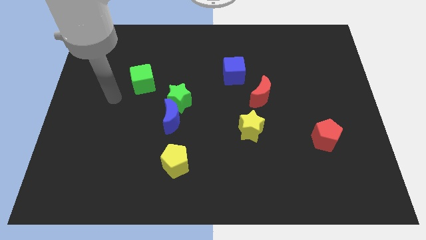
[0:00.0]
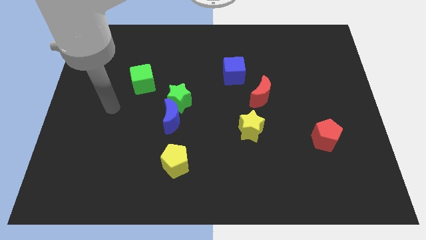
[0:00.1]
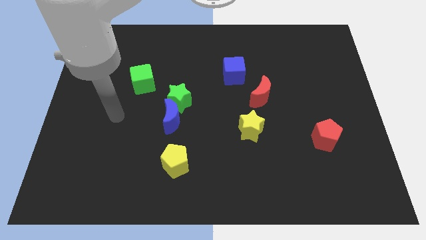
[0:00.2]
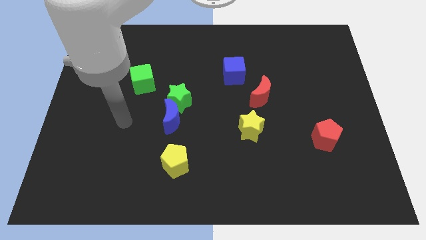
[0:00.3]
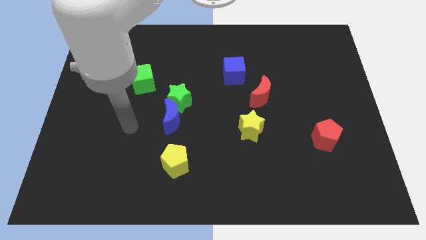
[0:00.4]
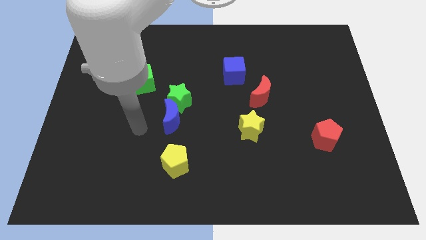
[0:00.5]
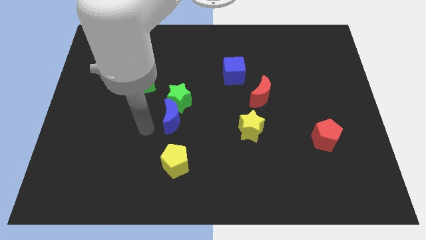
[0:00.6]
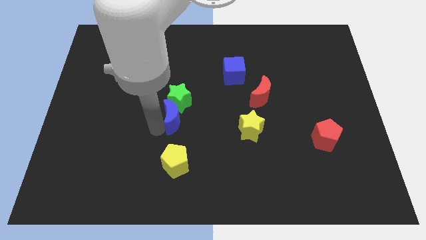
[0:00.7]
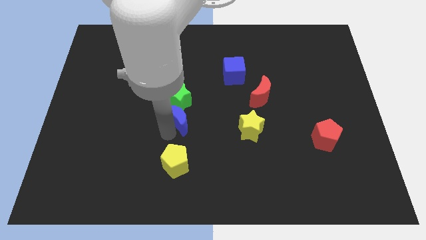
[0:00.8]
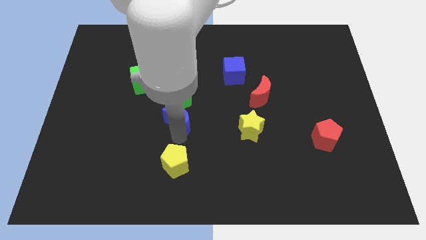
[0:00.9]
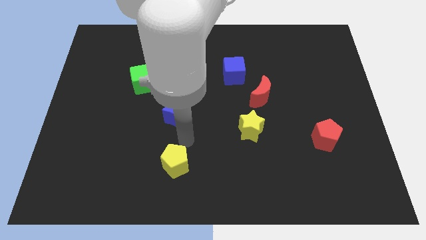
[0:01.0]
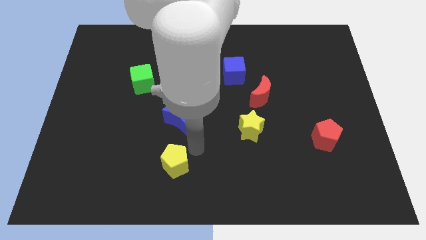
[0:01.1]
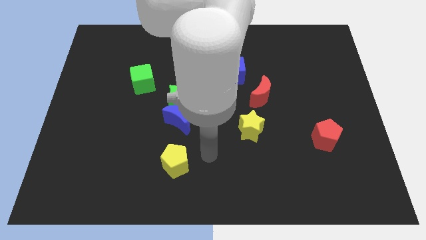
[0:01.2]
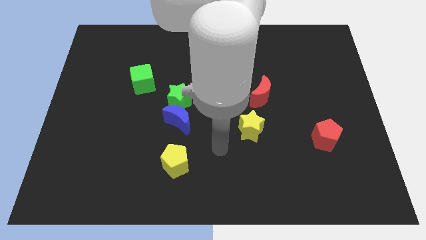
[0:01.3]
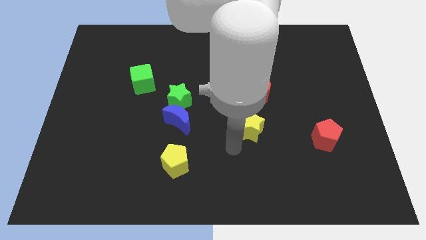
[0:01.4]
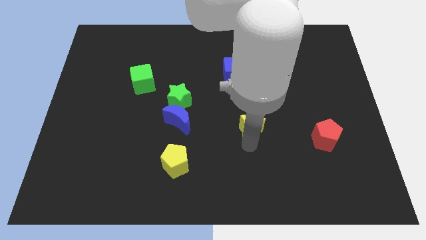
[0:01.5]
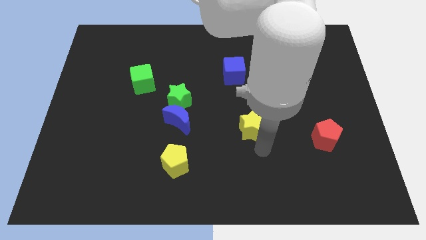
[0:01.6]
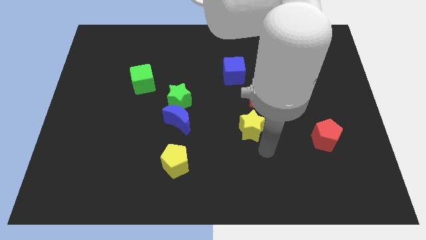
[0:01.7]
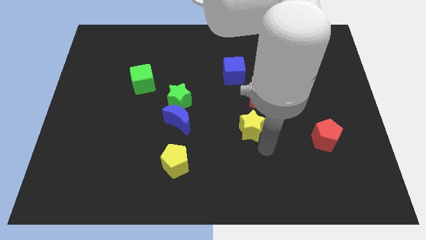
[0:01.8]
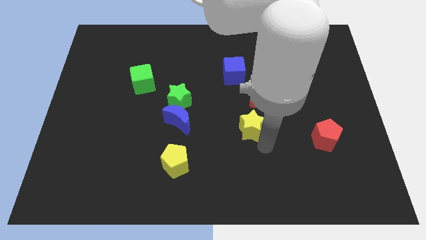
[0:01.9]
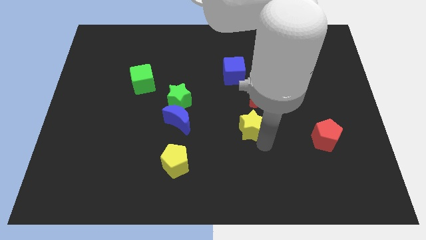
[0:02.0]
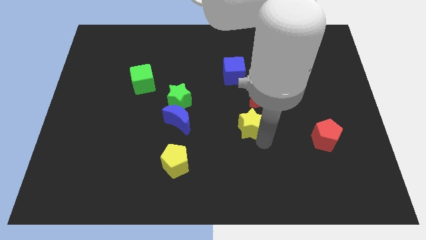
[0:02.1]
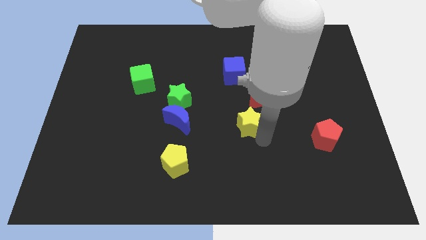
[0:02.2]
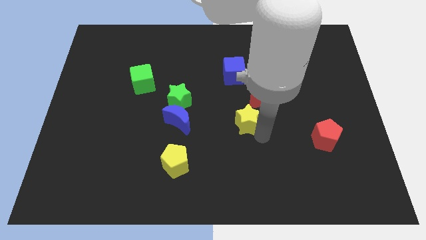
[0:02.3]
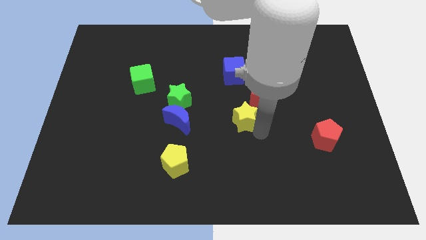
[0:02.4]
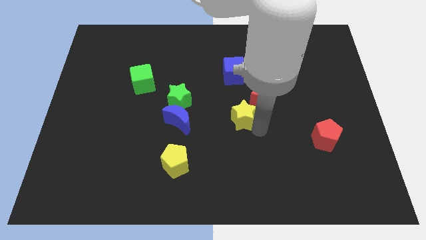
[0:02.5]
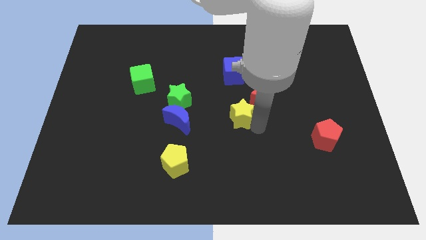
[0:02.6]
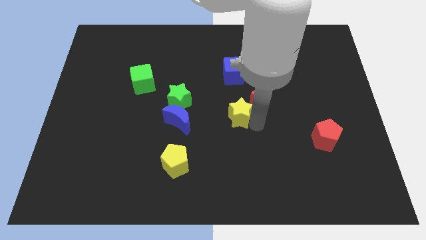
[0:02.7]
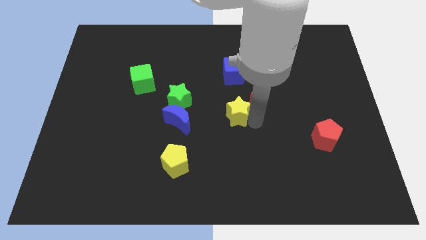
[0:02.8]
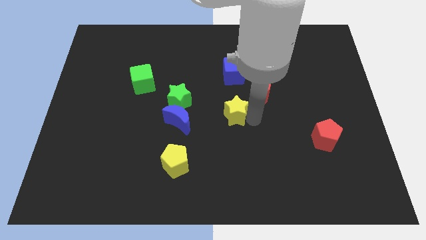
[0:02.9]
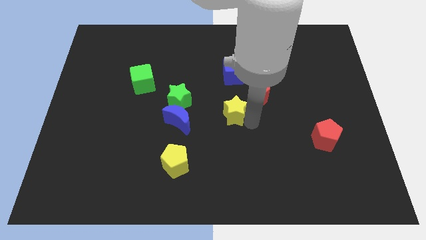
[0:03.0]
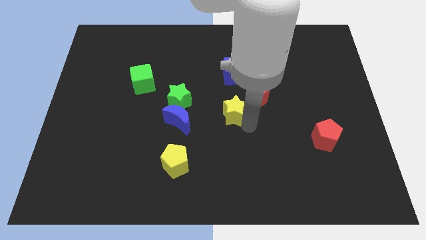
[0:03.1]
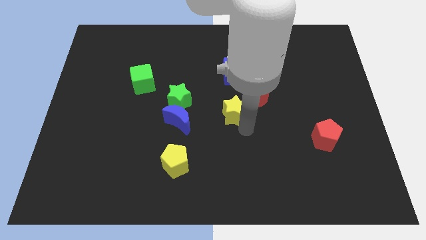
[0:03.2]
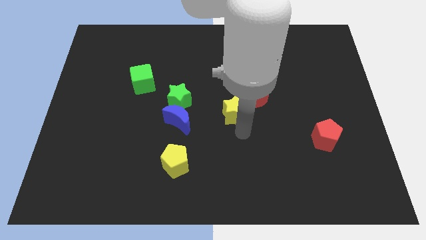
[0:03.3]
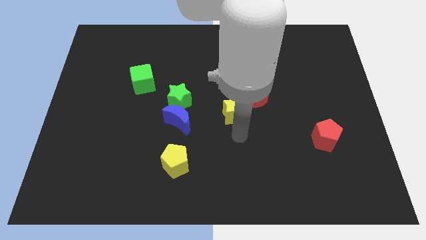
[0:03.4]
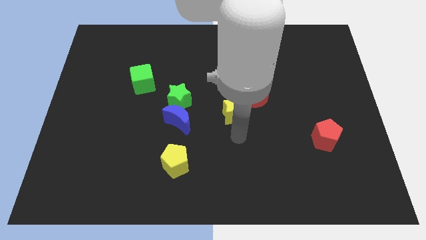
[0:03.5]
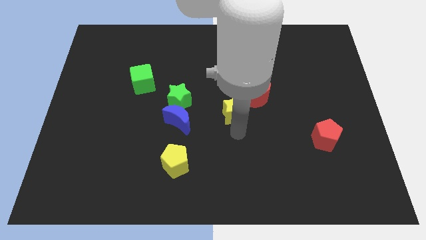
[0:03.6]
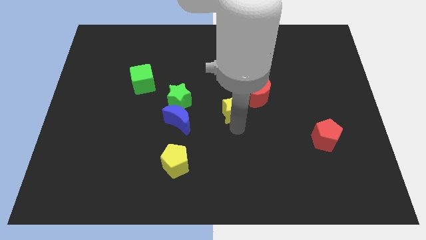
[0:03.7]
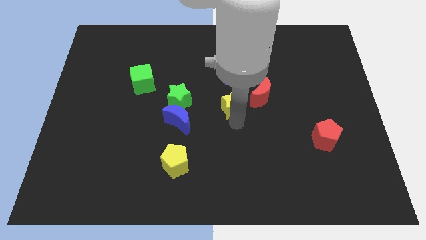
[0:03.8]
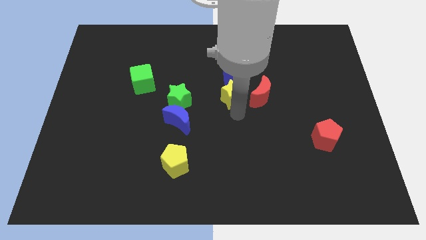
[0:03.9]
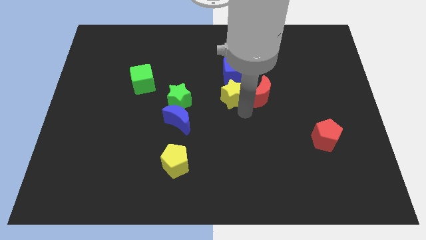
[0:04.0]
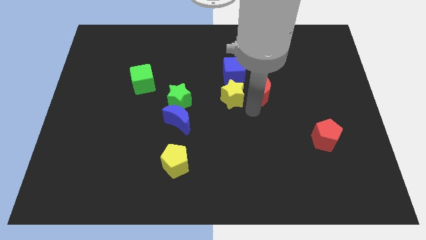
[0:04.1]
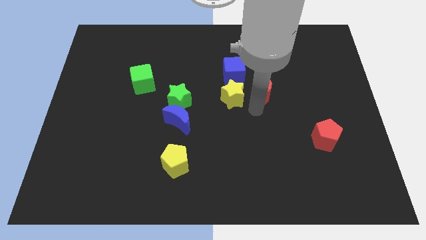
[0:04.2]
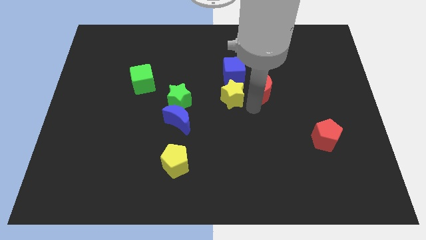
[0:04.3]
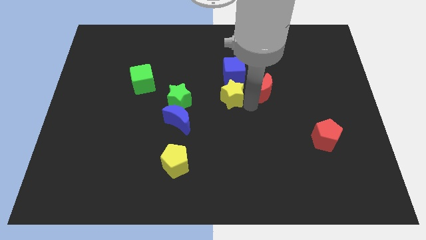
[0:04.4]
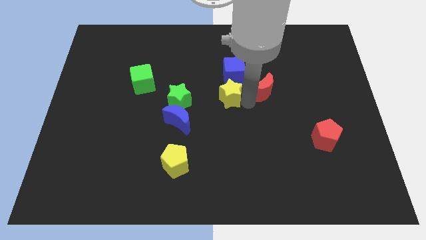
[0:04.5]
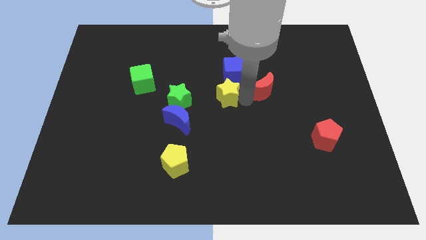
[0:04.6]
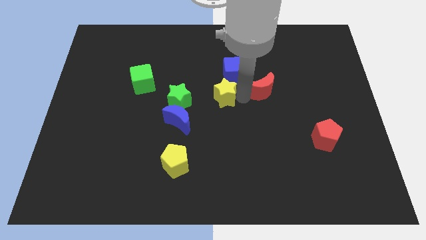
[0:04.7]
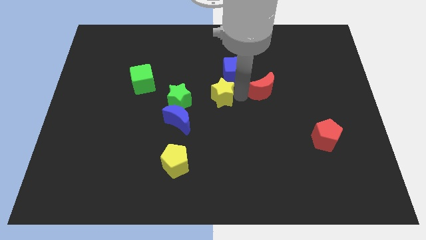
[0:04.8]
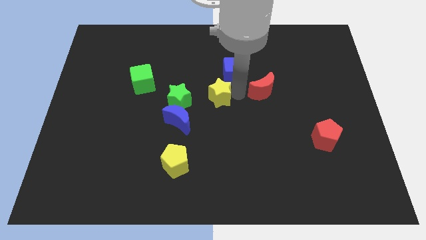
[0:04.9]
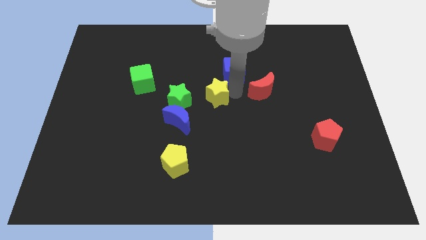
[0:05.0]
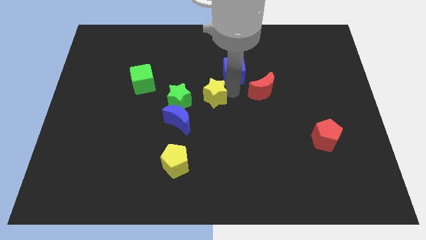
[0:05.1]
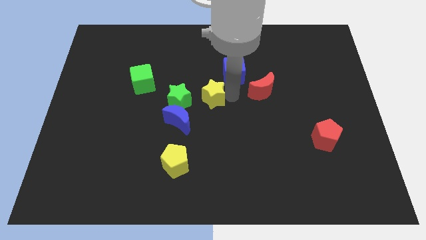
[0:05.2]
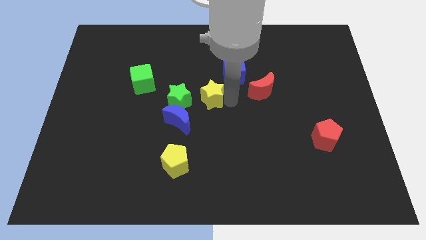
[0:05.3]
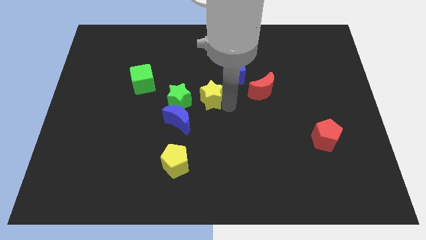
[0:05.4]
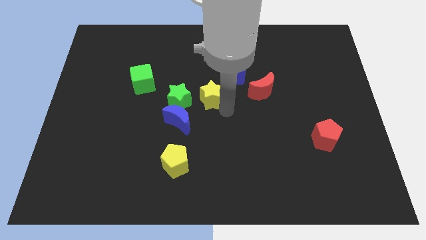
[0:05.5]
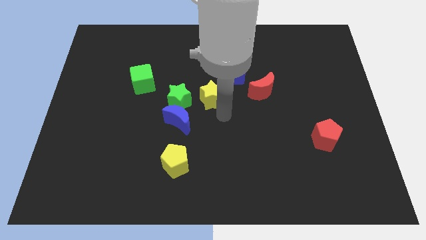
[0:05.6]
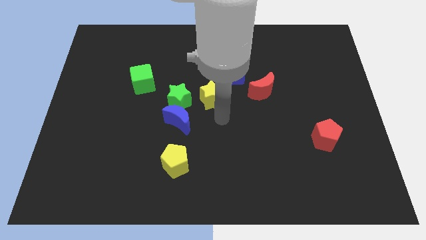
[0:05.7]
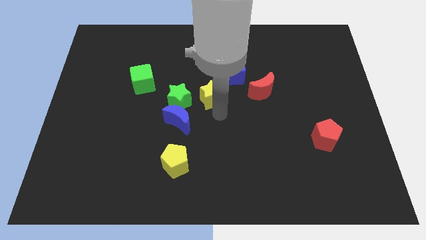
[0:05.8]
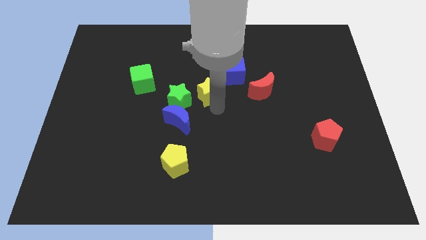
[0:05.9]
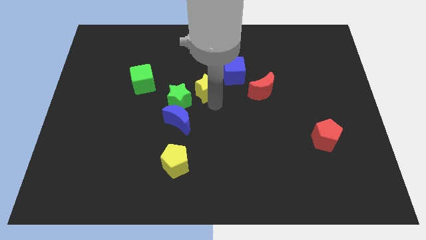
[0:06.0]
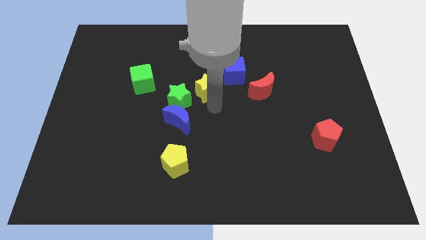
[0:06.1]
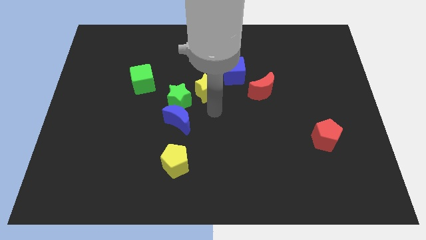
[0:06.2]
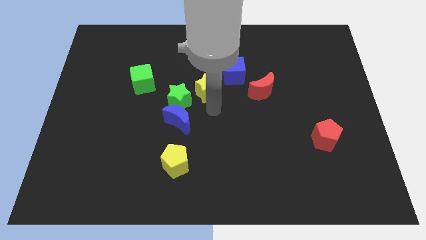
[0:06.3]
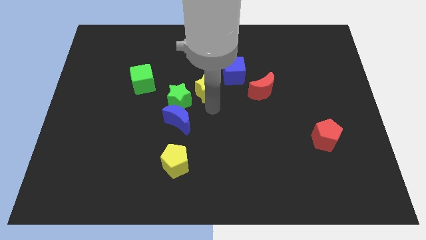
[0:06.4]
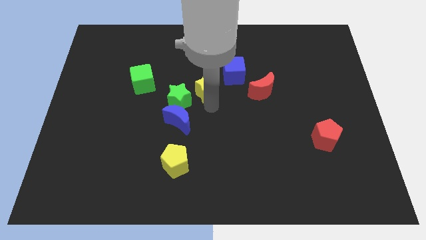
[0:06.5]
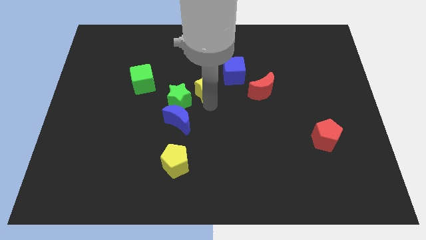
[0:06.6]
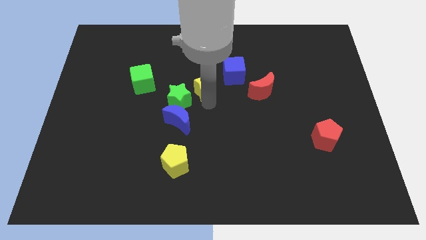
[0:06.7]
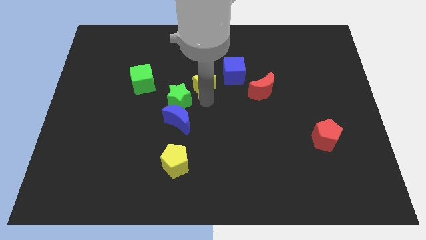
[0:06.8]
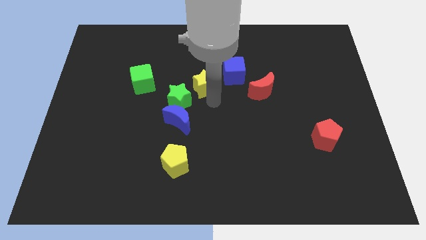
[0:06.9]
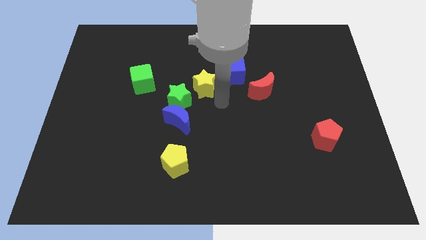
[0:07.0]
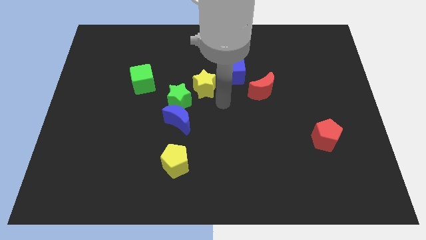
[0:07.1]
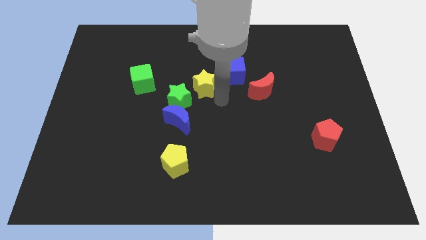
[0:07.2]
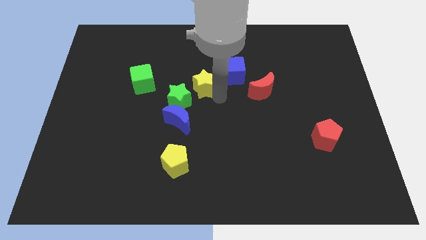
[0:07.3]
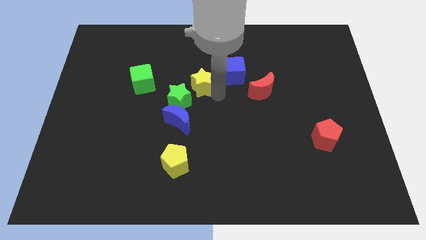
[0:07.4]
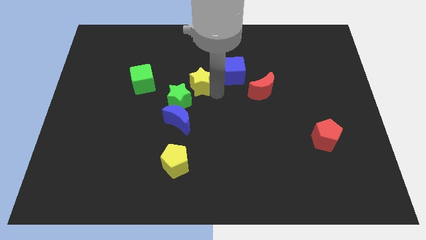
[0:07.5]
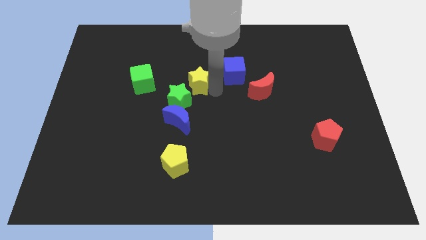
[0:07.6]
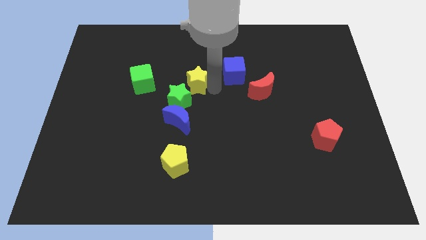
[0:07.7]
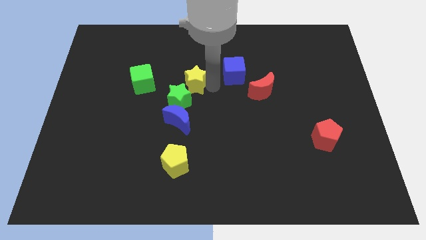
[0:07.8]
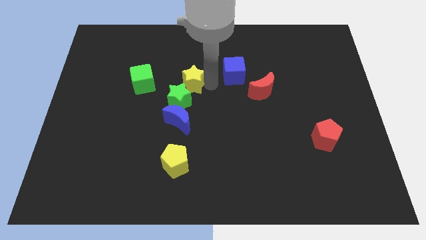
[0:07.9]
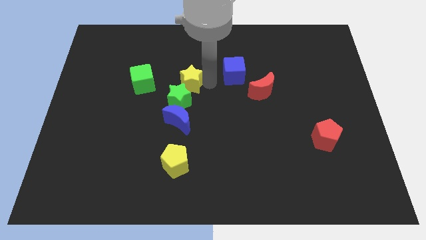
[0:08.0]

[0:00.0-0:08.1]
move the yellow star diagonally up and left
